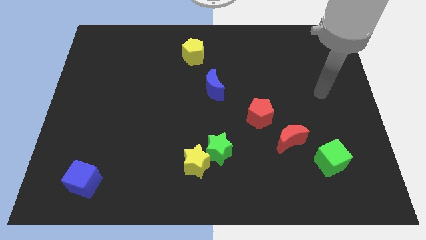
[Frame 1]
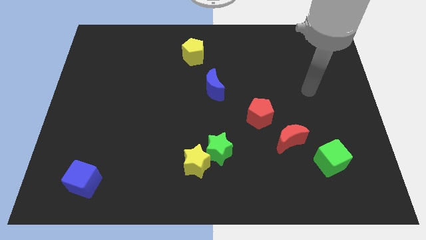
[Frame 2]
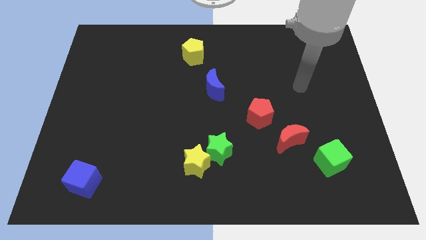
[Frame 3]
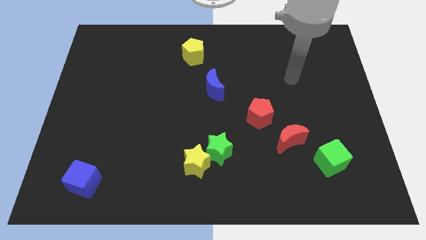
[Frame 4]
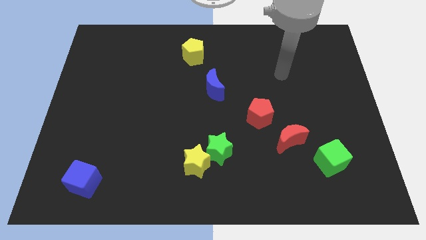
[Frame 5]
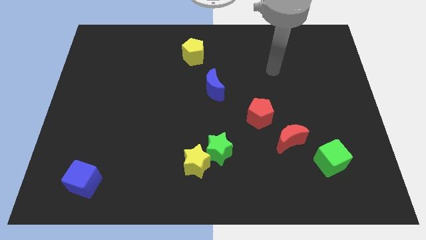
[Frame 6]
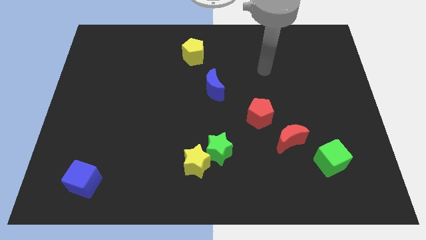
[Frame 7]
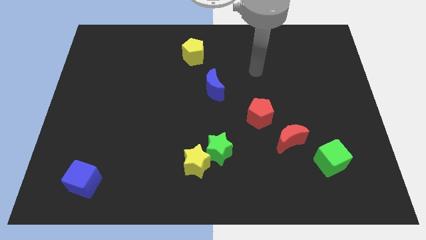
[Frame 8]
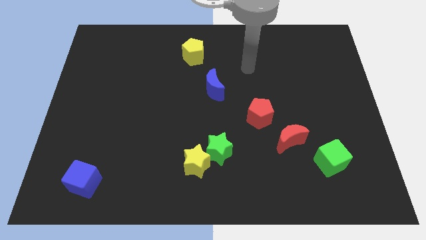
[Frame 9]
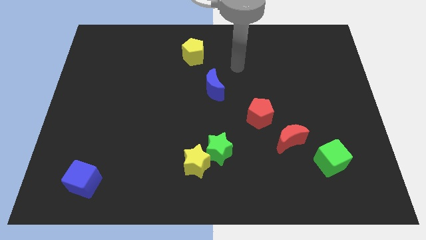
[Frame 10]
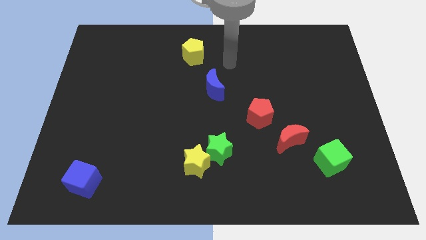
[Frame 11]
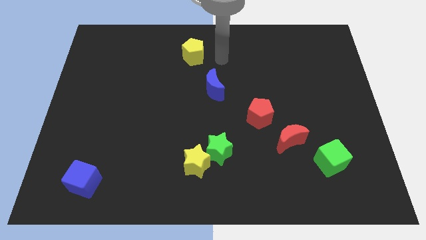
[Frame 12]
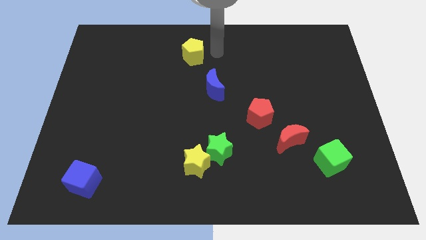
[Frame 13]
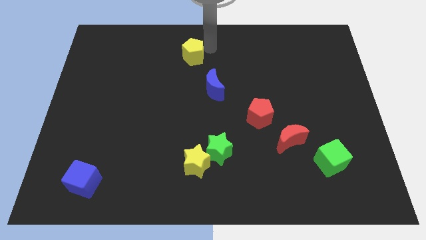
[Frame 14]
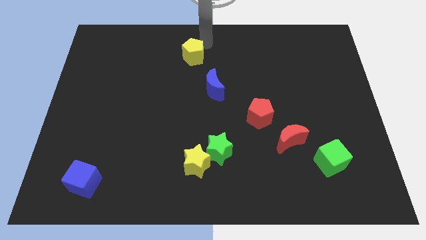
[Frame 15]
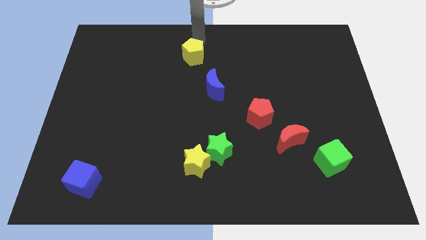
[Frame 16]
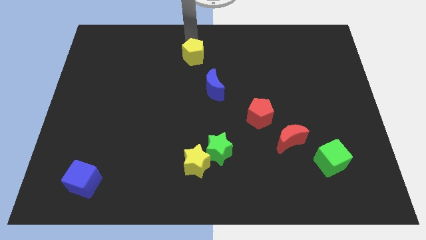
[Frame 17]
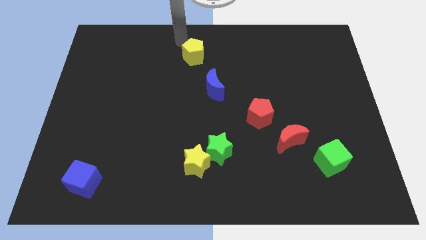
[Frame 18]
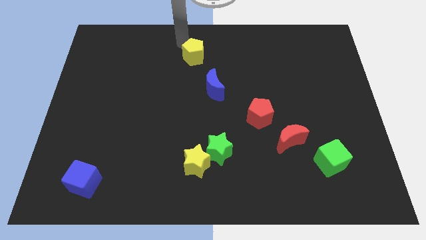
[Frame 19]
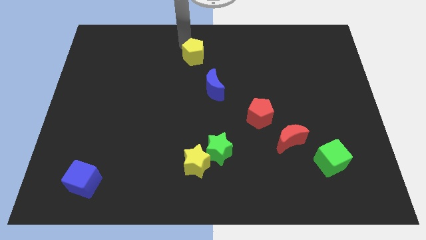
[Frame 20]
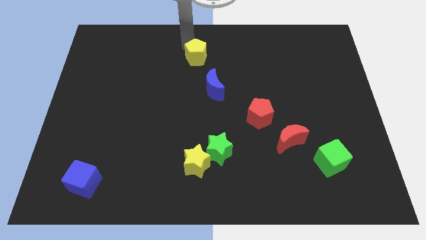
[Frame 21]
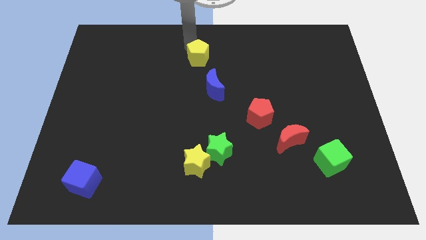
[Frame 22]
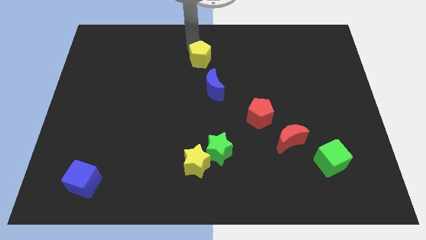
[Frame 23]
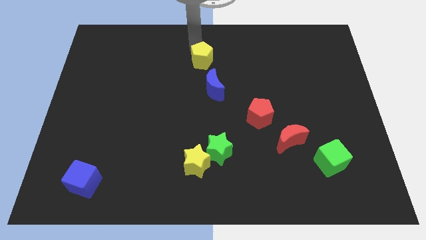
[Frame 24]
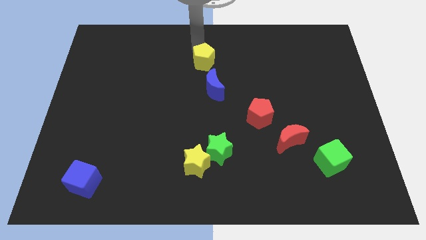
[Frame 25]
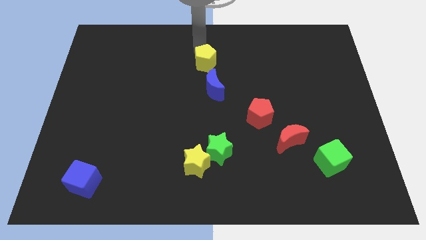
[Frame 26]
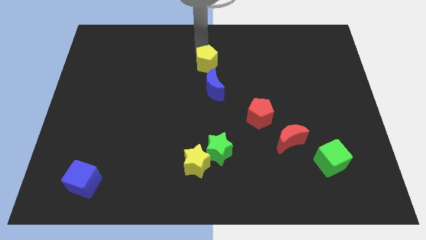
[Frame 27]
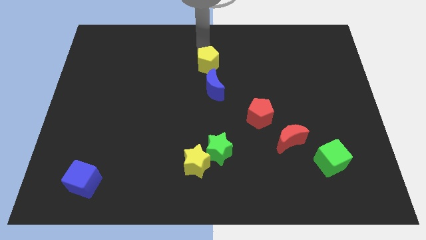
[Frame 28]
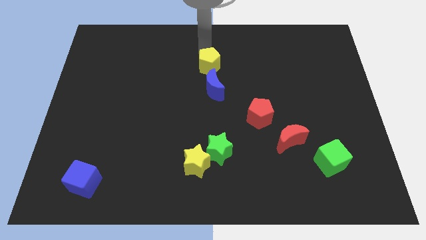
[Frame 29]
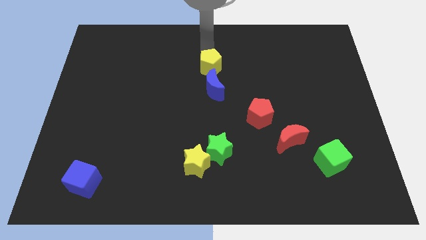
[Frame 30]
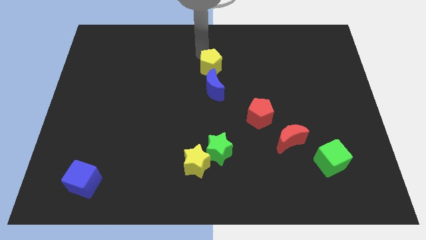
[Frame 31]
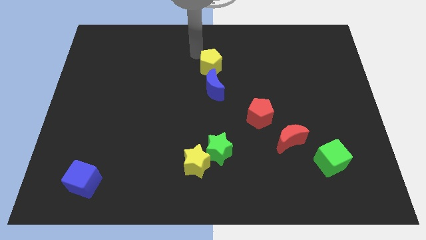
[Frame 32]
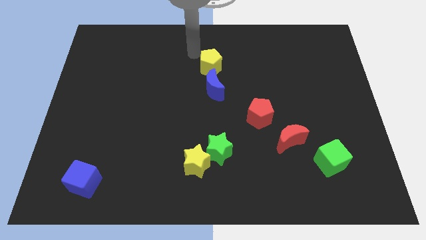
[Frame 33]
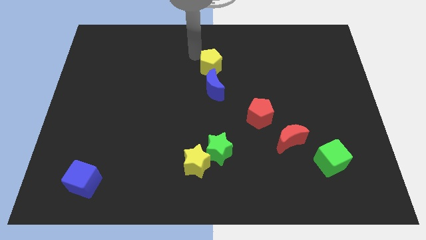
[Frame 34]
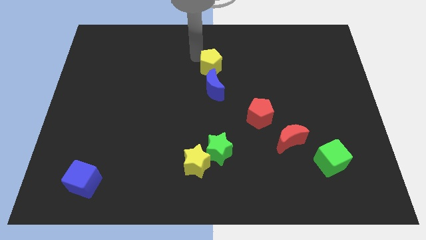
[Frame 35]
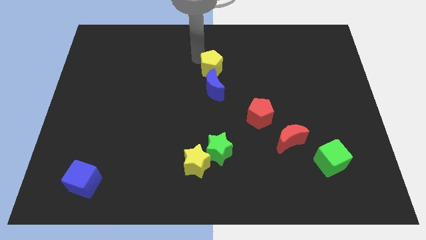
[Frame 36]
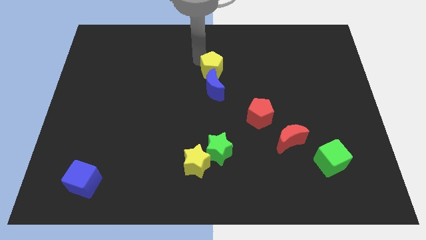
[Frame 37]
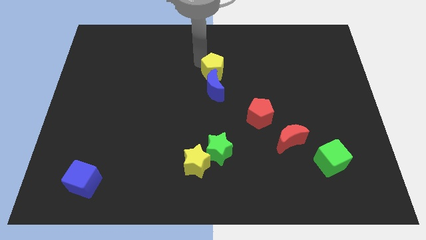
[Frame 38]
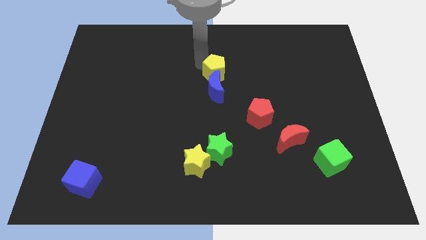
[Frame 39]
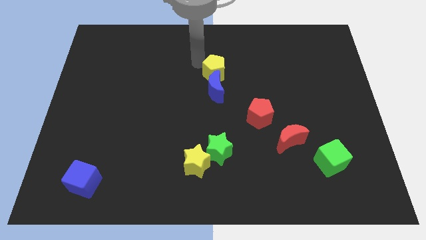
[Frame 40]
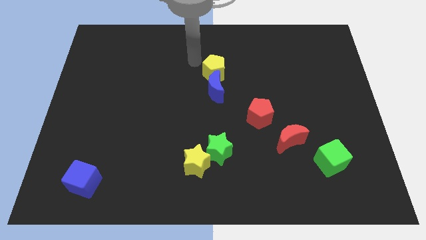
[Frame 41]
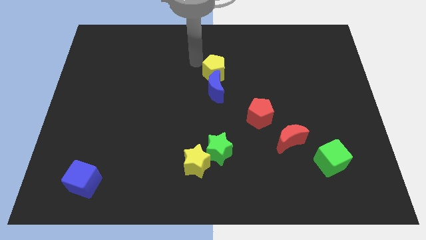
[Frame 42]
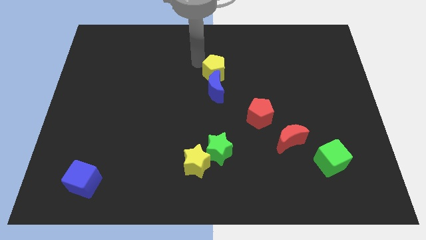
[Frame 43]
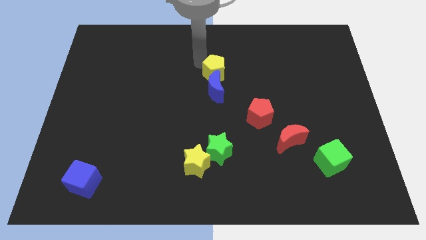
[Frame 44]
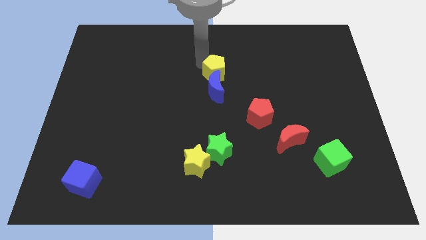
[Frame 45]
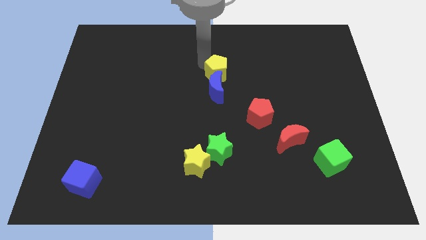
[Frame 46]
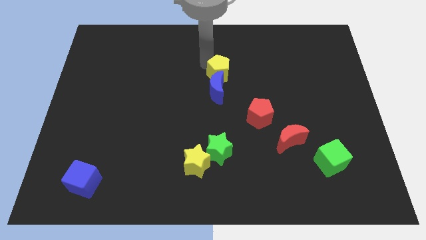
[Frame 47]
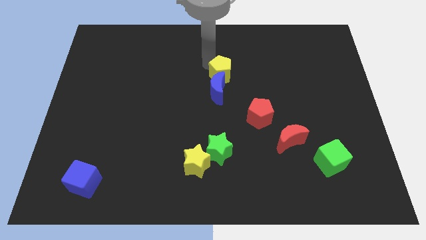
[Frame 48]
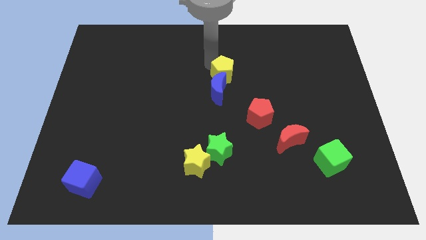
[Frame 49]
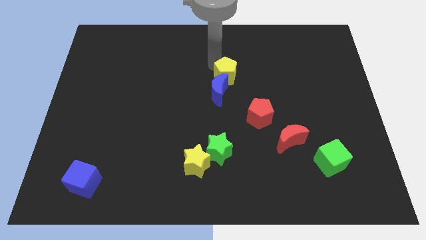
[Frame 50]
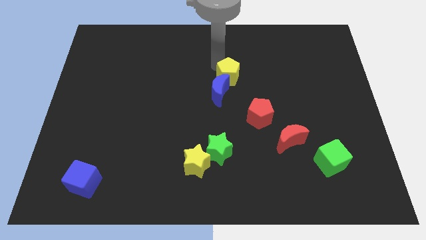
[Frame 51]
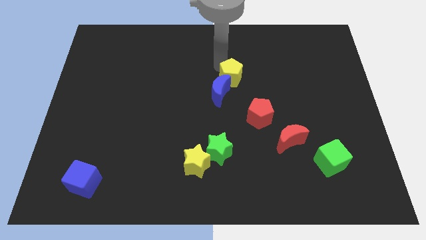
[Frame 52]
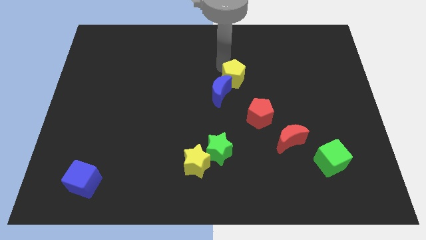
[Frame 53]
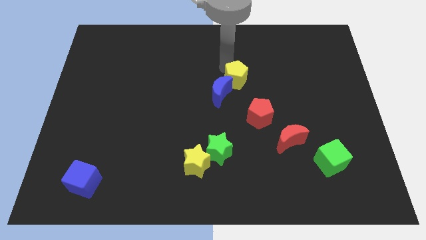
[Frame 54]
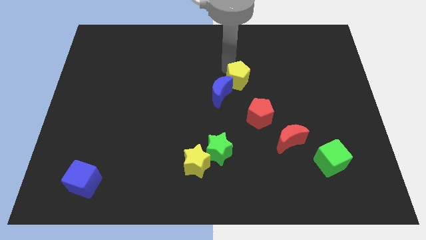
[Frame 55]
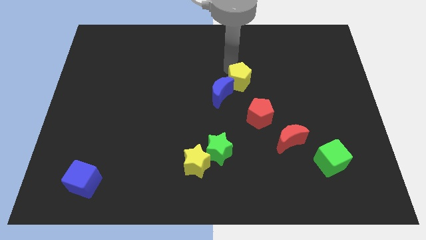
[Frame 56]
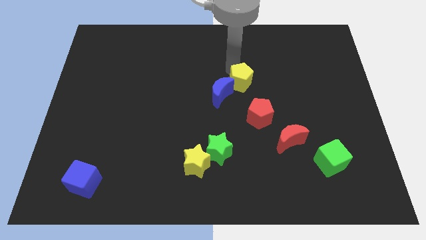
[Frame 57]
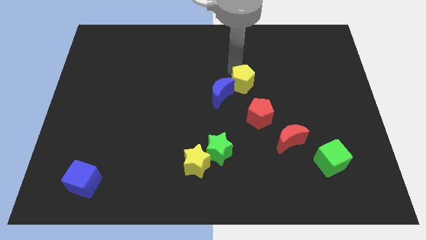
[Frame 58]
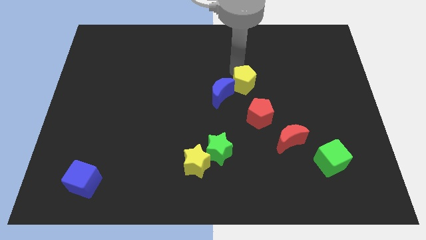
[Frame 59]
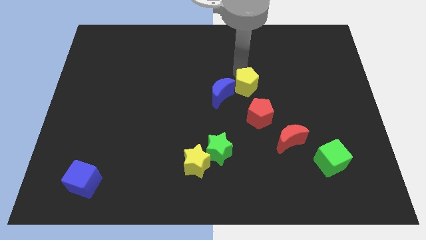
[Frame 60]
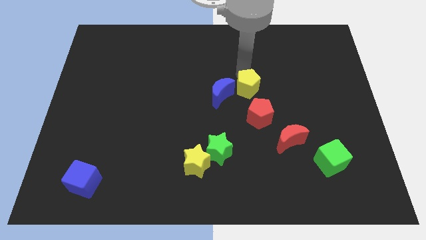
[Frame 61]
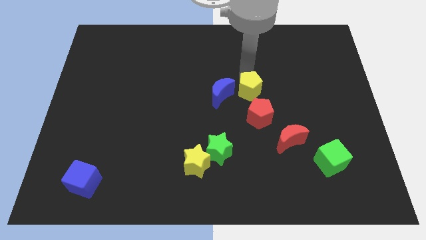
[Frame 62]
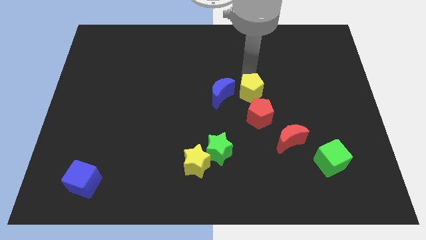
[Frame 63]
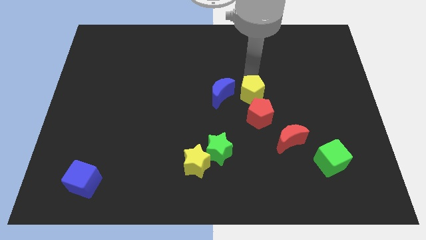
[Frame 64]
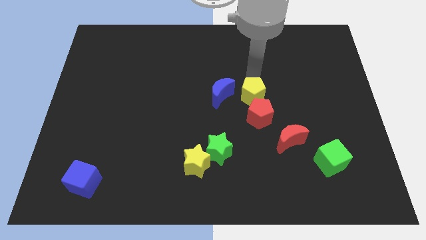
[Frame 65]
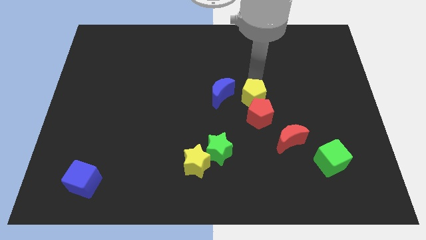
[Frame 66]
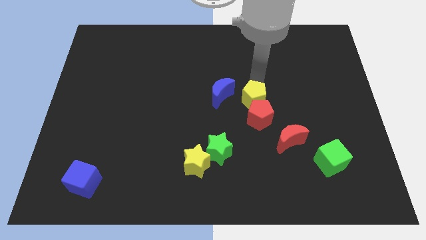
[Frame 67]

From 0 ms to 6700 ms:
push the yellow pentagon diagonally down and to the right of the blue moon
